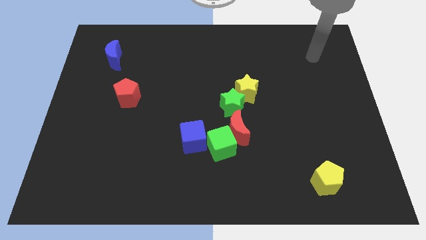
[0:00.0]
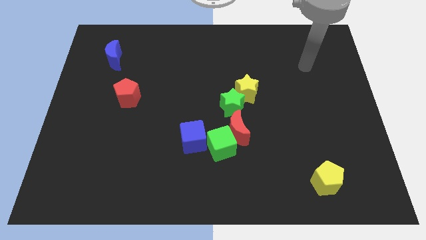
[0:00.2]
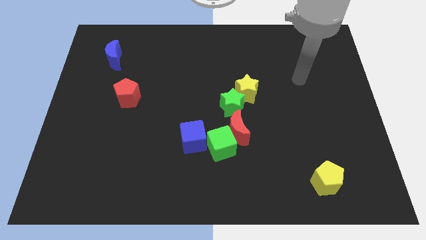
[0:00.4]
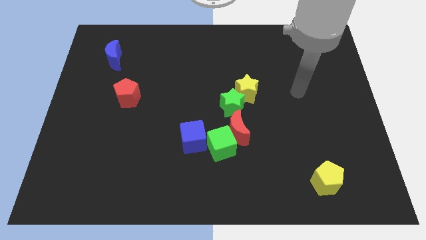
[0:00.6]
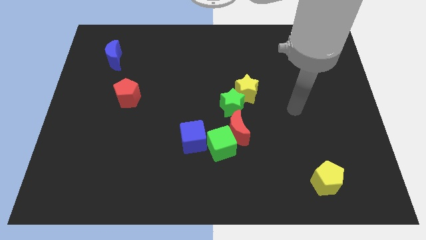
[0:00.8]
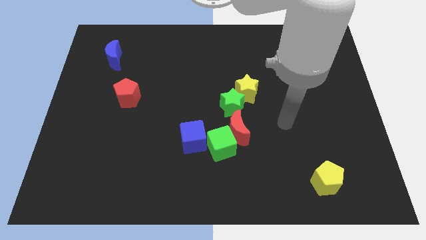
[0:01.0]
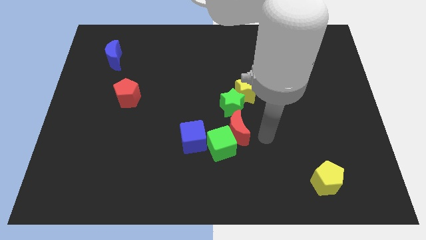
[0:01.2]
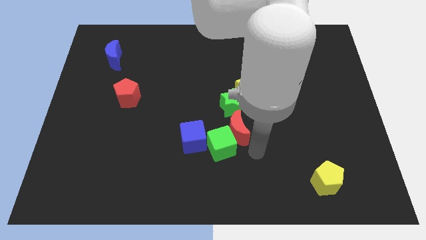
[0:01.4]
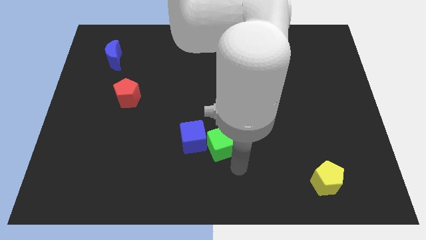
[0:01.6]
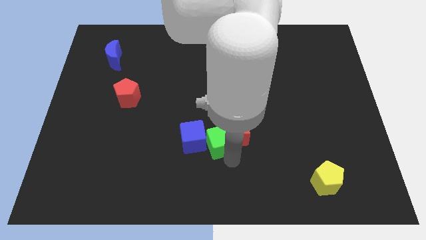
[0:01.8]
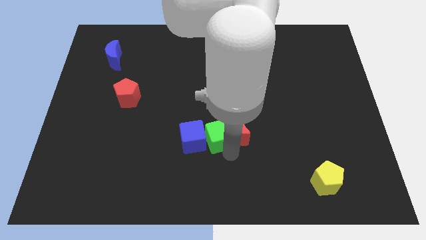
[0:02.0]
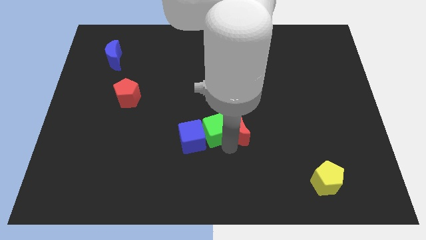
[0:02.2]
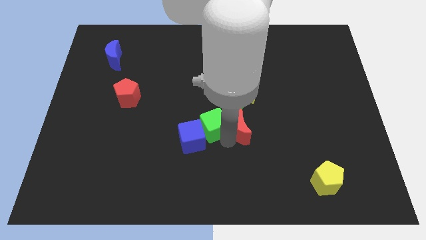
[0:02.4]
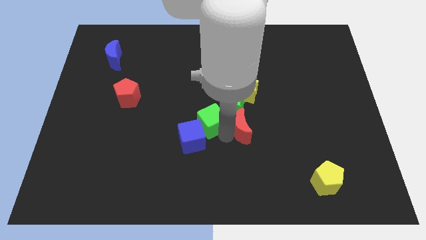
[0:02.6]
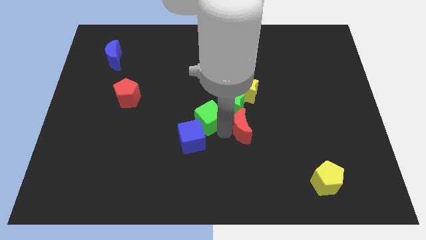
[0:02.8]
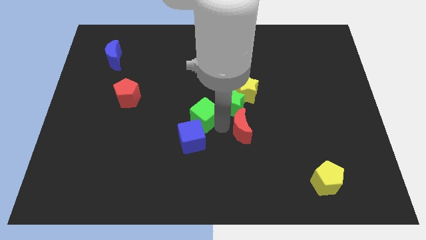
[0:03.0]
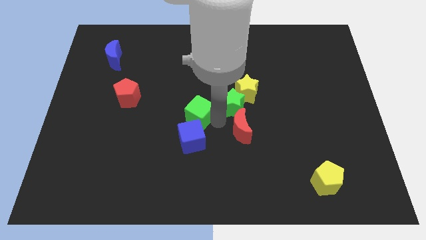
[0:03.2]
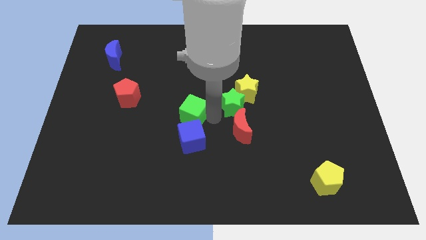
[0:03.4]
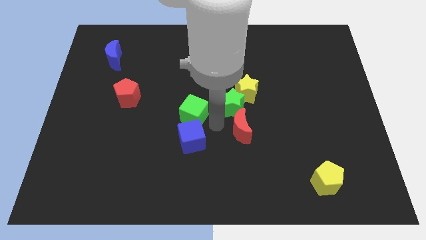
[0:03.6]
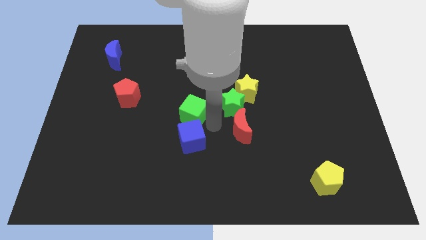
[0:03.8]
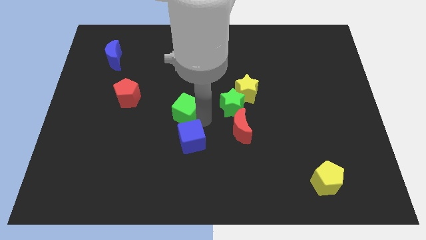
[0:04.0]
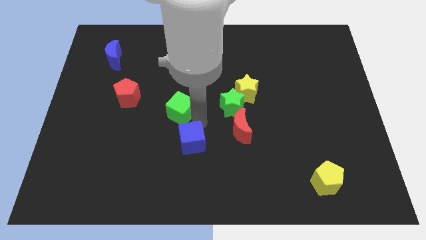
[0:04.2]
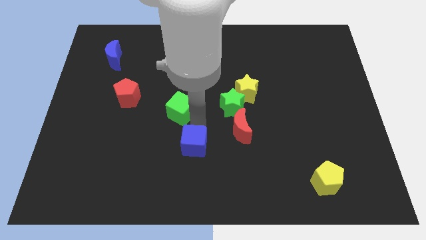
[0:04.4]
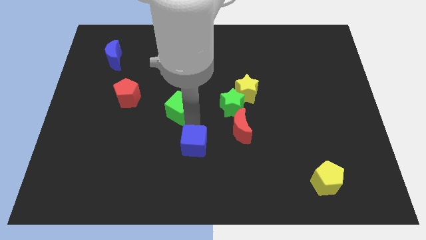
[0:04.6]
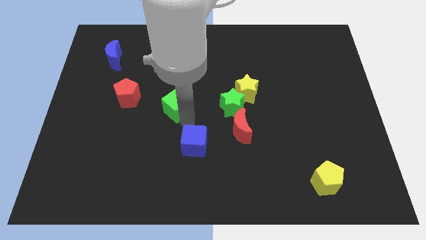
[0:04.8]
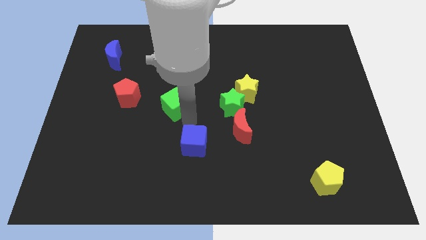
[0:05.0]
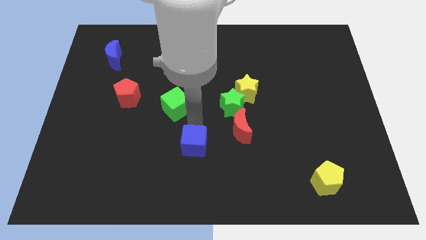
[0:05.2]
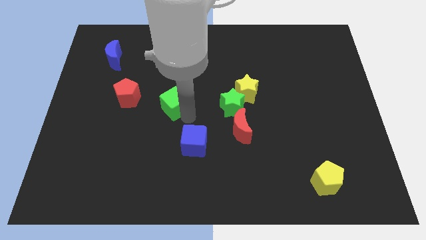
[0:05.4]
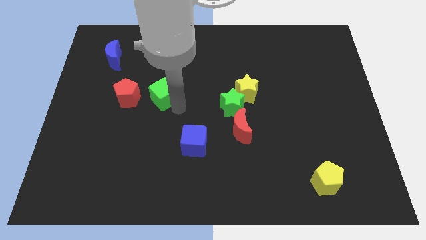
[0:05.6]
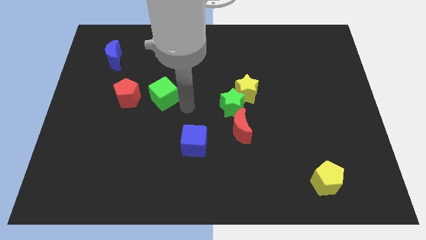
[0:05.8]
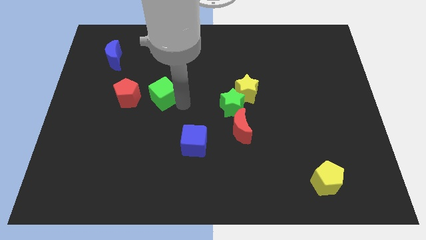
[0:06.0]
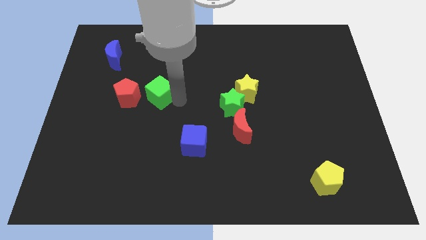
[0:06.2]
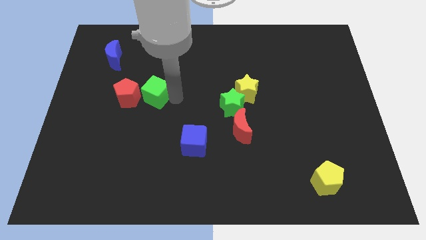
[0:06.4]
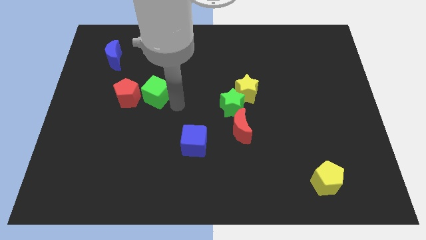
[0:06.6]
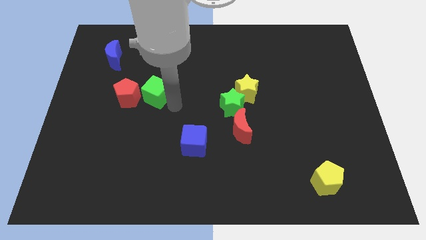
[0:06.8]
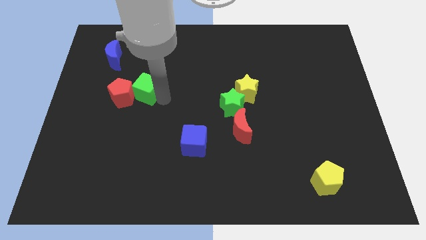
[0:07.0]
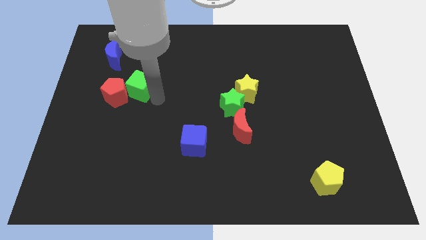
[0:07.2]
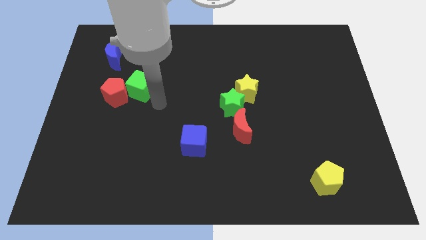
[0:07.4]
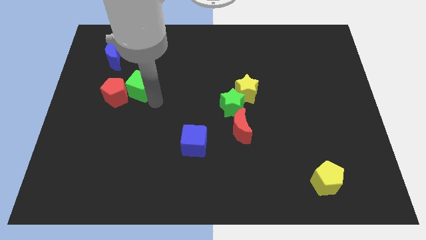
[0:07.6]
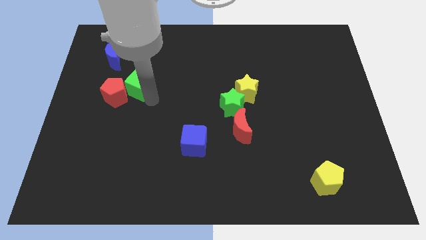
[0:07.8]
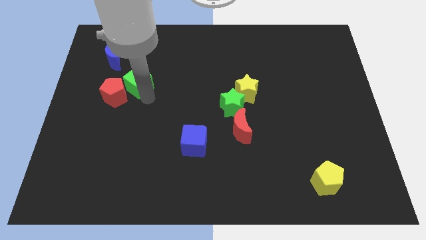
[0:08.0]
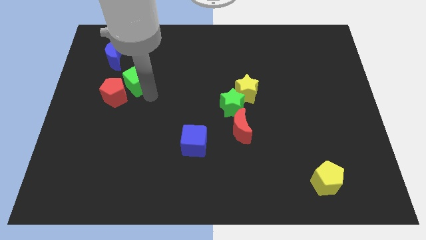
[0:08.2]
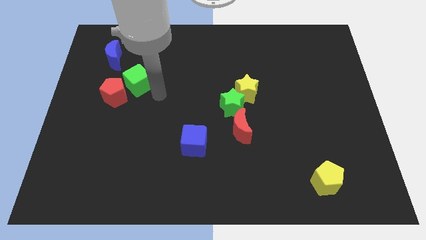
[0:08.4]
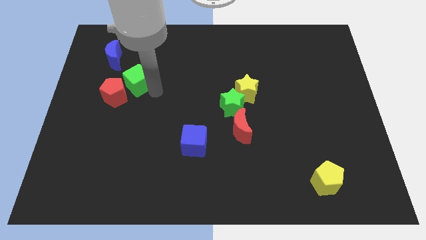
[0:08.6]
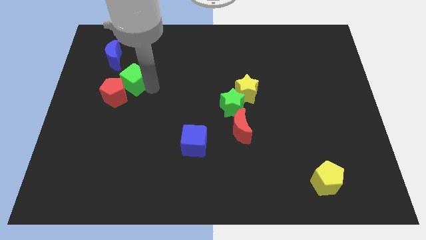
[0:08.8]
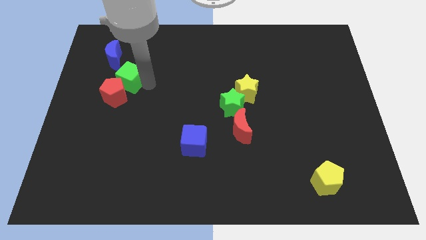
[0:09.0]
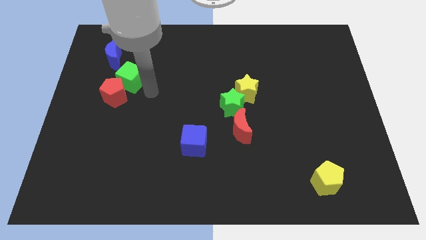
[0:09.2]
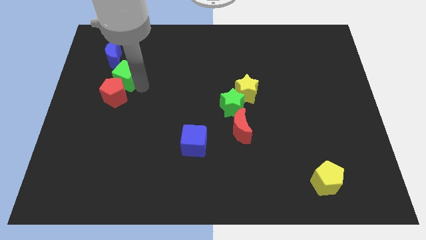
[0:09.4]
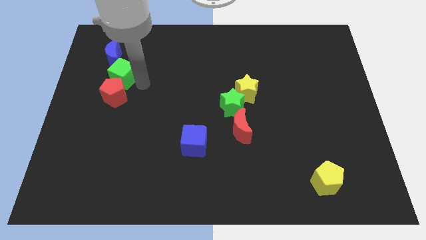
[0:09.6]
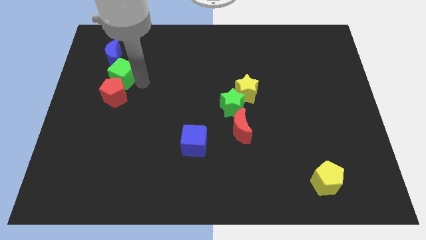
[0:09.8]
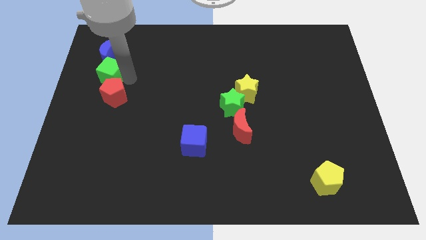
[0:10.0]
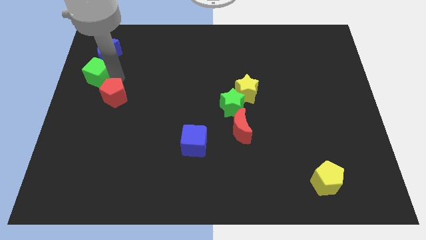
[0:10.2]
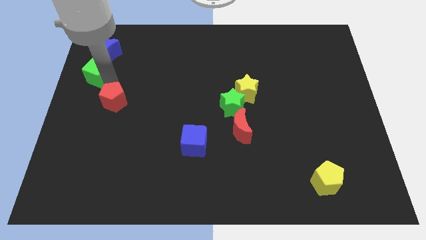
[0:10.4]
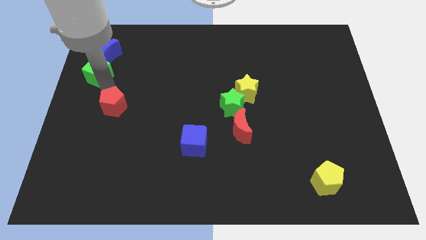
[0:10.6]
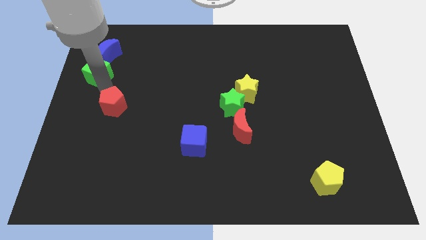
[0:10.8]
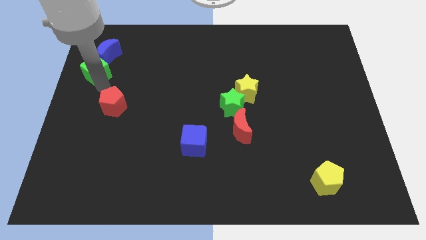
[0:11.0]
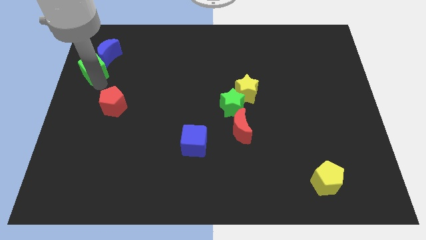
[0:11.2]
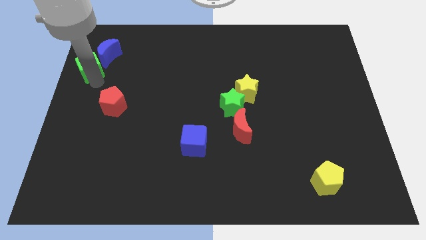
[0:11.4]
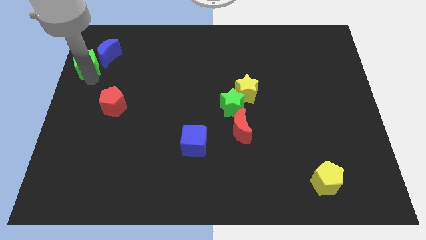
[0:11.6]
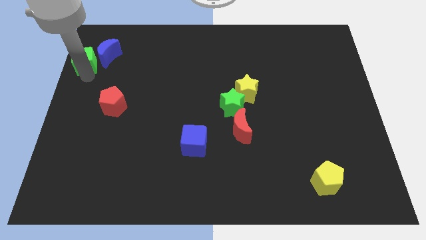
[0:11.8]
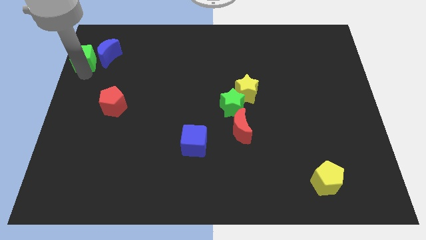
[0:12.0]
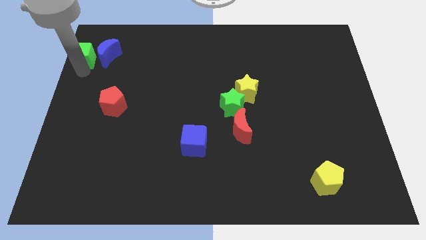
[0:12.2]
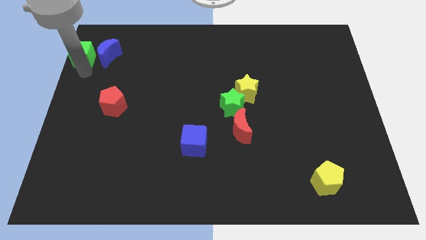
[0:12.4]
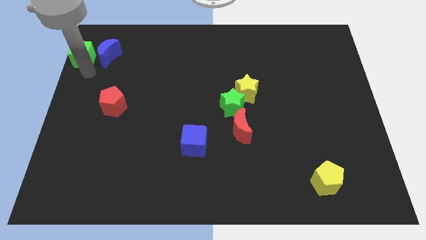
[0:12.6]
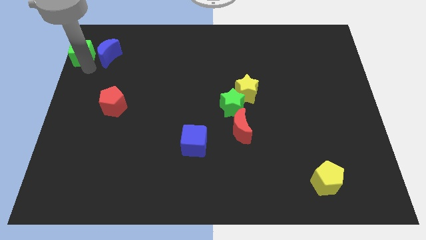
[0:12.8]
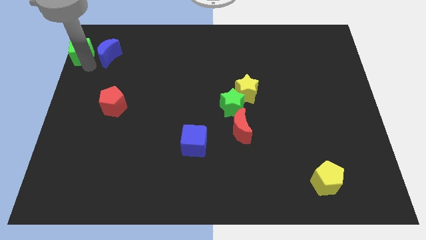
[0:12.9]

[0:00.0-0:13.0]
put the green cube to the upper left corner
